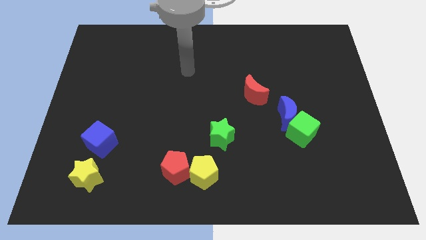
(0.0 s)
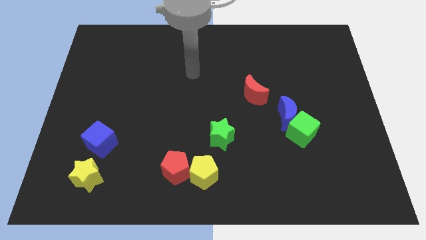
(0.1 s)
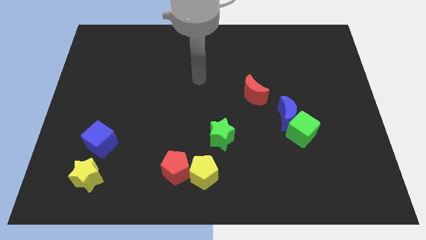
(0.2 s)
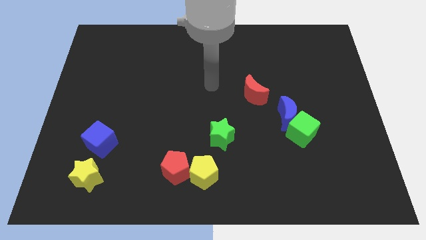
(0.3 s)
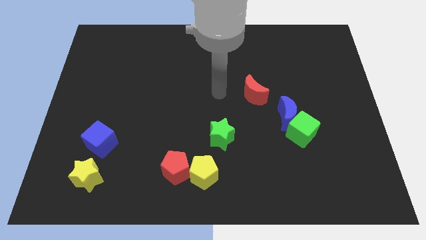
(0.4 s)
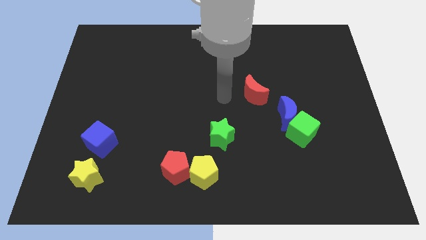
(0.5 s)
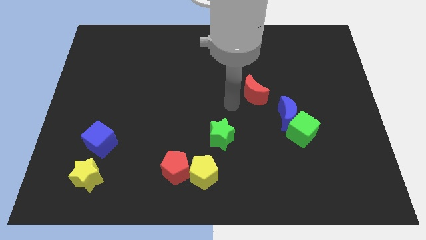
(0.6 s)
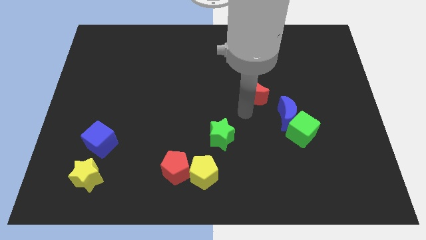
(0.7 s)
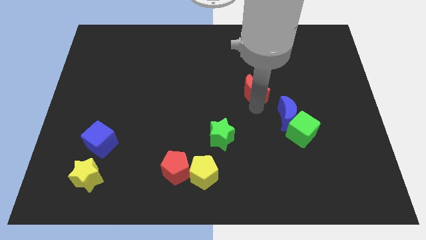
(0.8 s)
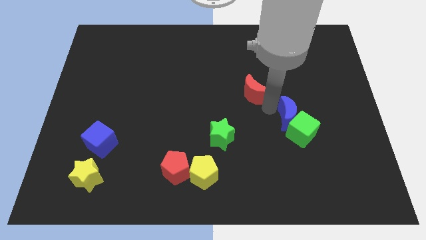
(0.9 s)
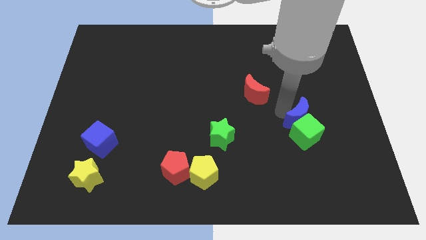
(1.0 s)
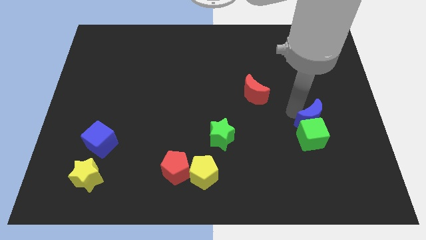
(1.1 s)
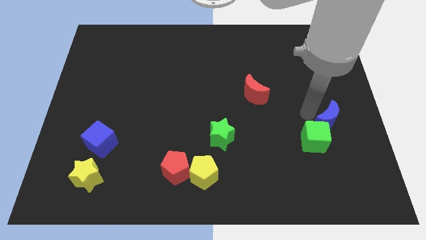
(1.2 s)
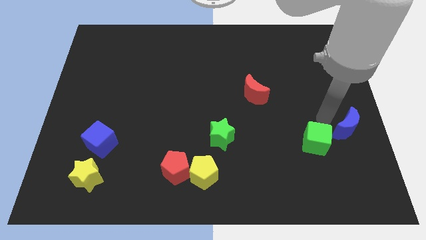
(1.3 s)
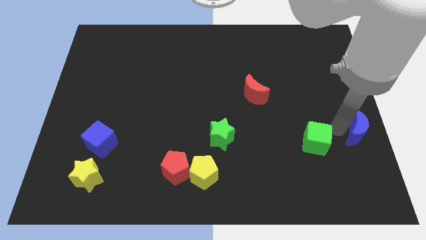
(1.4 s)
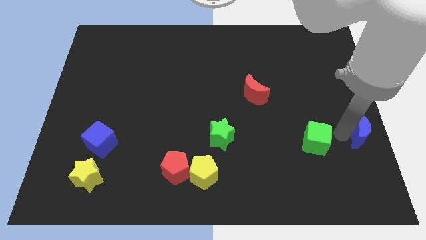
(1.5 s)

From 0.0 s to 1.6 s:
move the green cube away from the blue moon

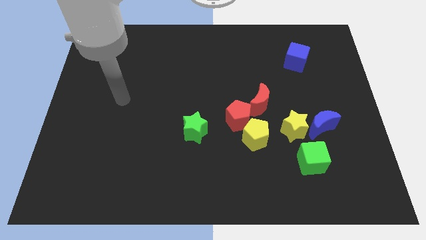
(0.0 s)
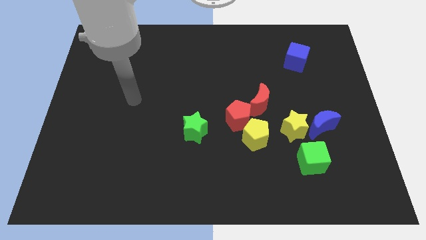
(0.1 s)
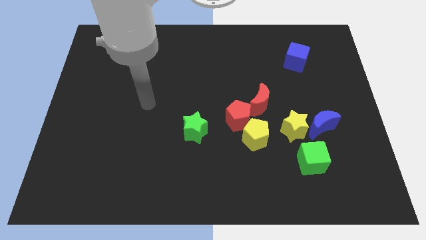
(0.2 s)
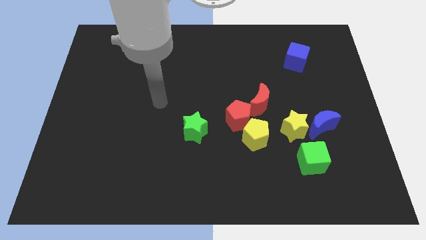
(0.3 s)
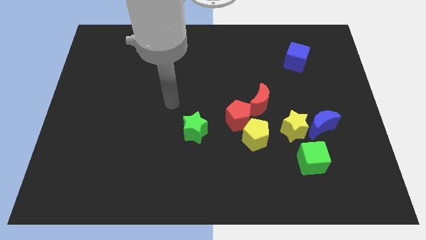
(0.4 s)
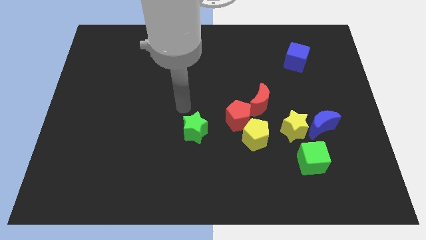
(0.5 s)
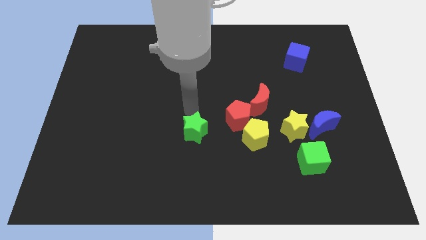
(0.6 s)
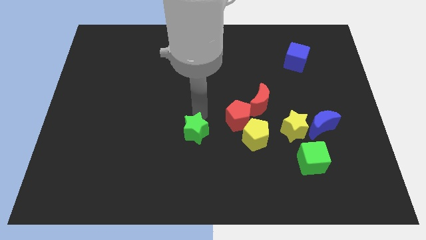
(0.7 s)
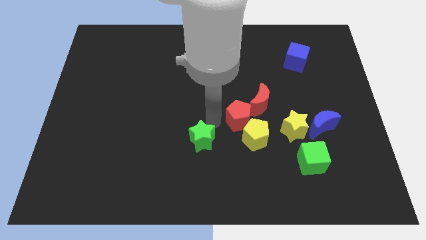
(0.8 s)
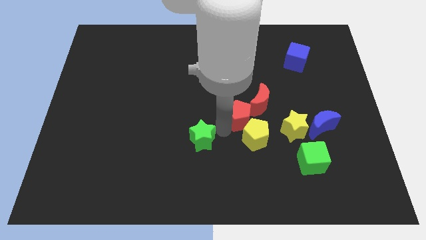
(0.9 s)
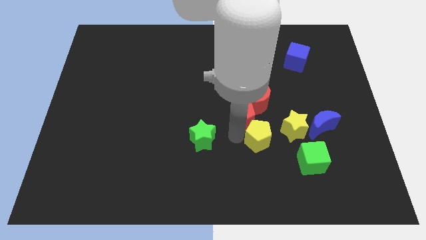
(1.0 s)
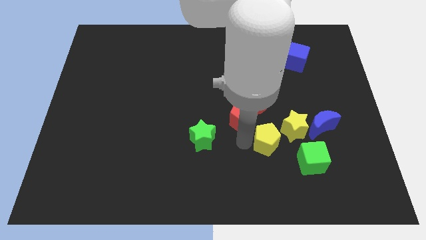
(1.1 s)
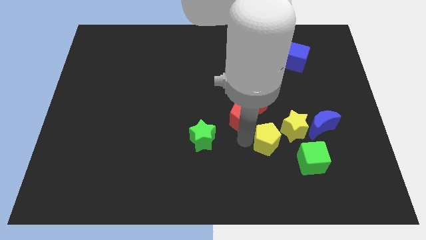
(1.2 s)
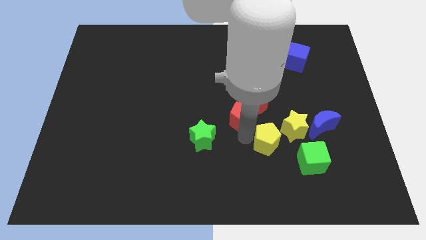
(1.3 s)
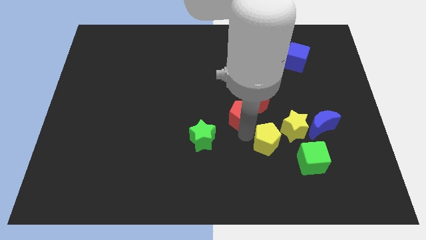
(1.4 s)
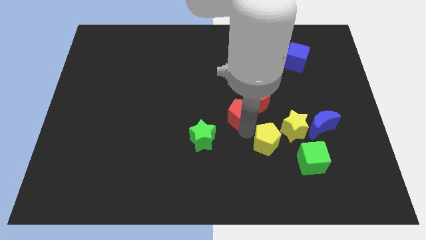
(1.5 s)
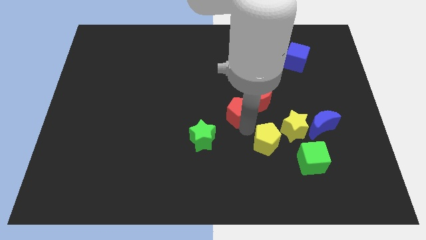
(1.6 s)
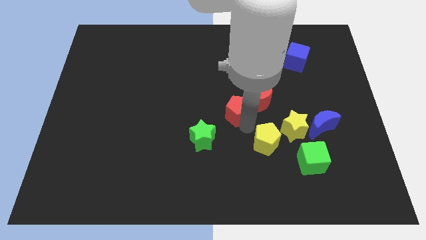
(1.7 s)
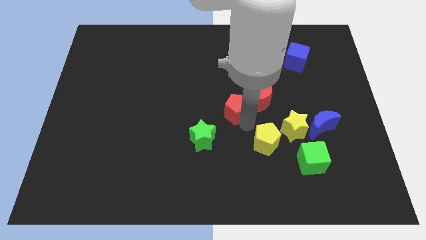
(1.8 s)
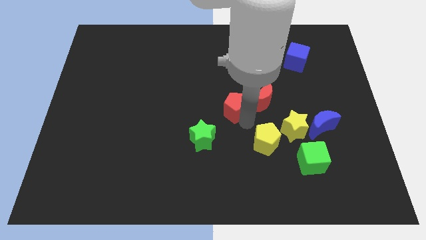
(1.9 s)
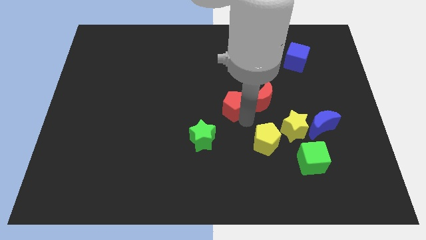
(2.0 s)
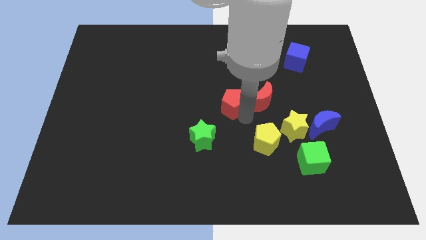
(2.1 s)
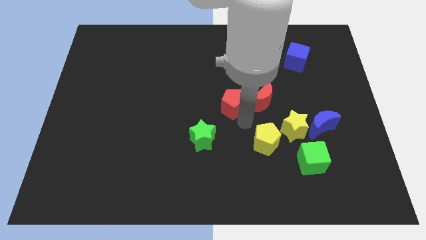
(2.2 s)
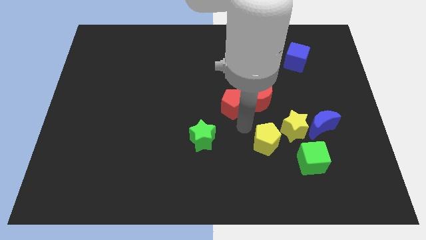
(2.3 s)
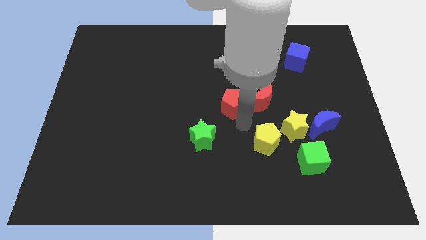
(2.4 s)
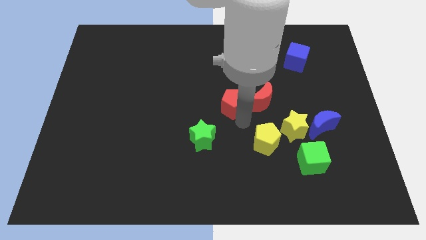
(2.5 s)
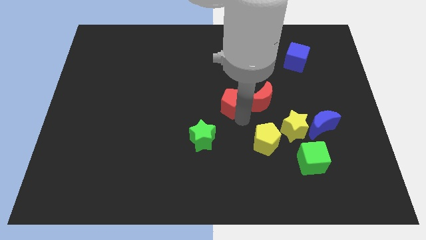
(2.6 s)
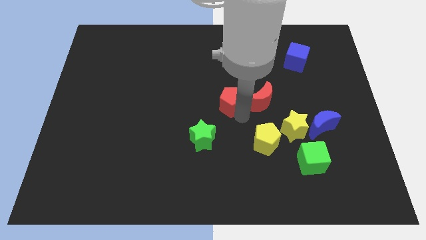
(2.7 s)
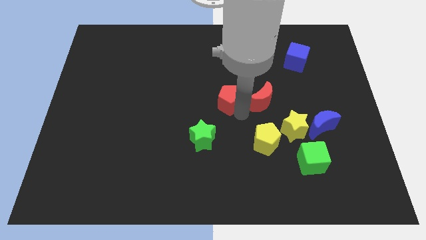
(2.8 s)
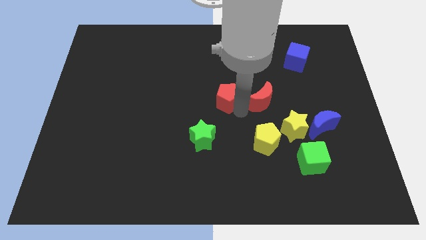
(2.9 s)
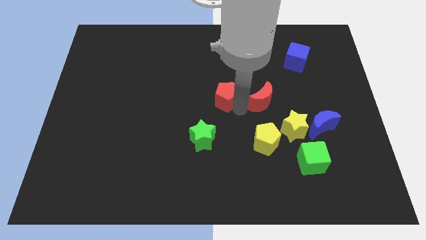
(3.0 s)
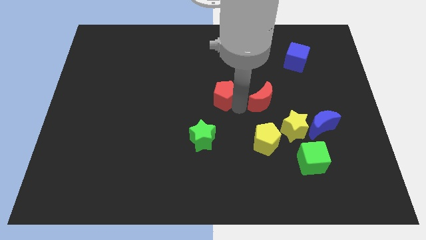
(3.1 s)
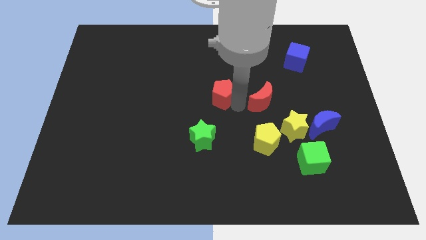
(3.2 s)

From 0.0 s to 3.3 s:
move the red pentagon away from the yellow pentagon, red moon, and green star

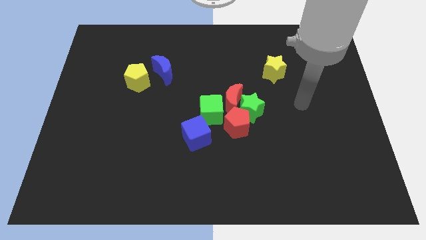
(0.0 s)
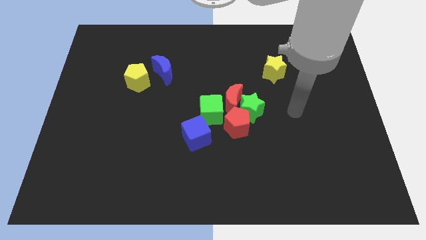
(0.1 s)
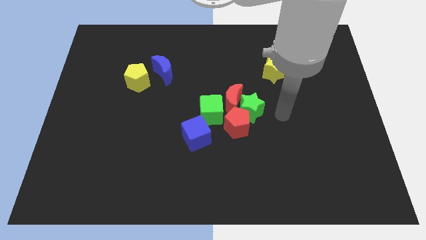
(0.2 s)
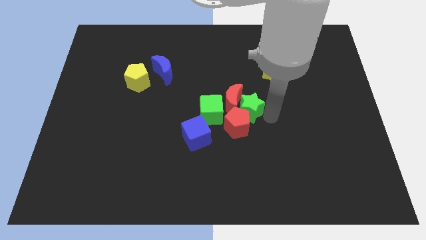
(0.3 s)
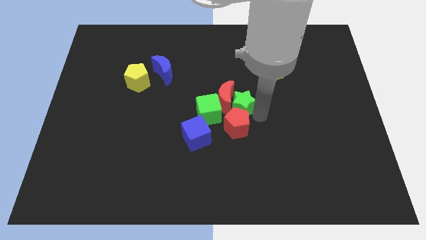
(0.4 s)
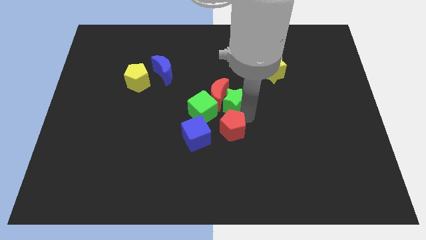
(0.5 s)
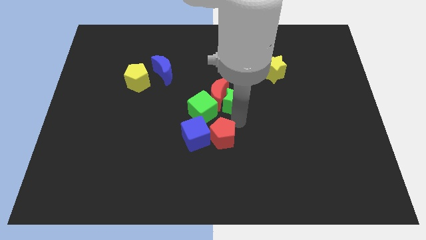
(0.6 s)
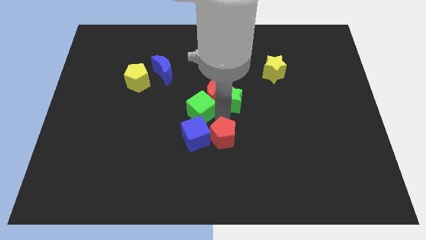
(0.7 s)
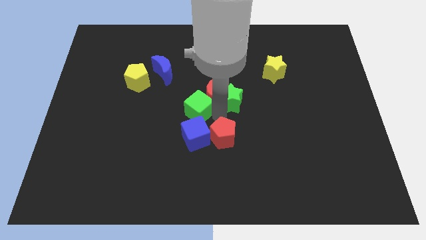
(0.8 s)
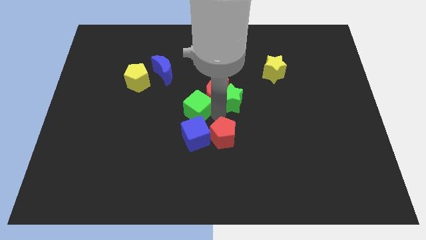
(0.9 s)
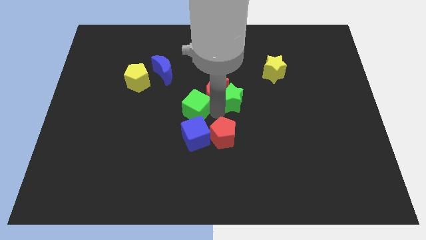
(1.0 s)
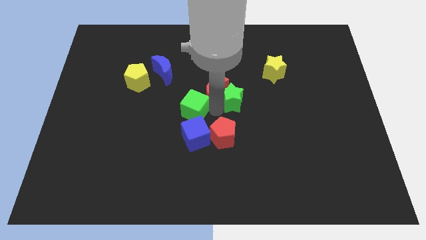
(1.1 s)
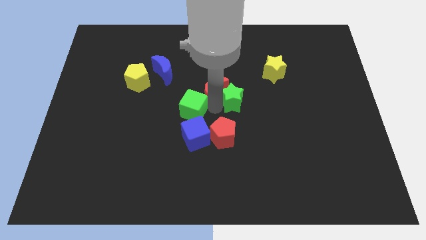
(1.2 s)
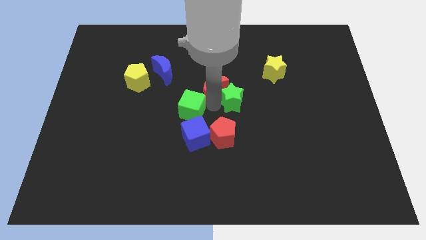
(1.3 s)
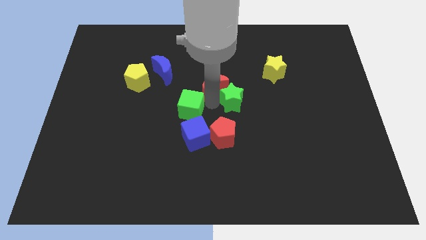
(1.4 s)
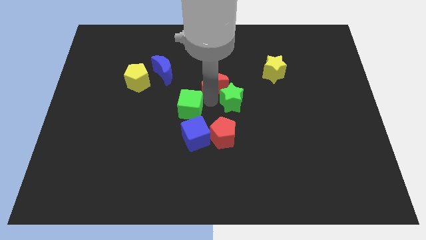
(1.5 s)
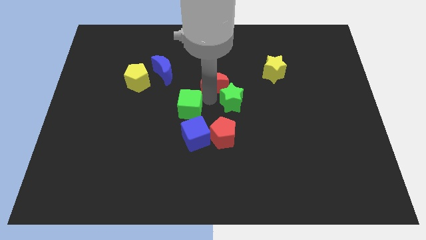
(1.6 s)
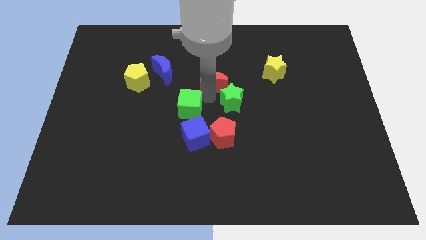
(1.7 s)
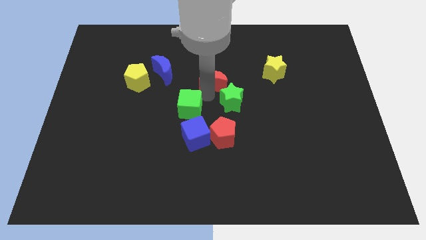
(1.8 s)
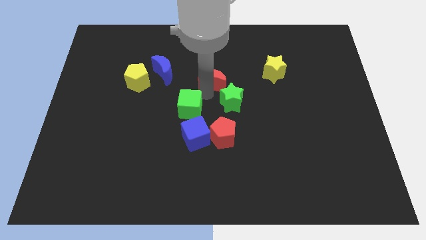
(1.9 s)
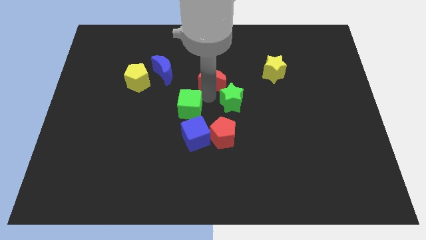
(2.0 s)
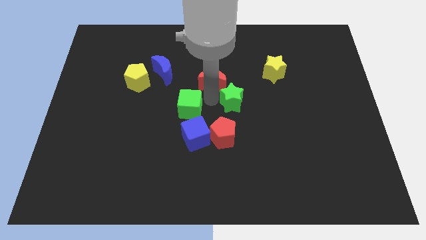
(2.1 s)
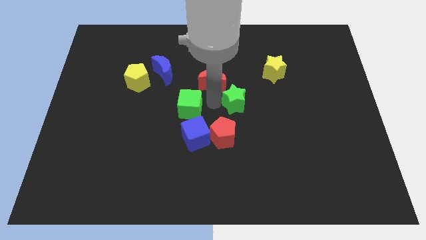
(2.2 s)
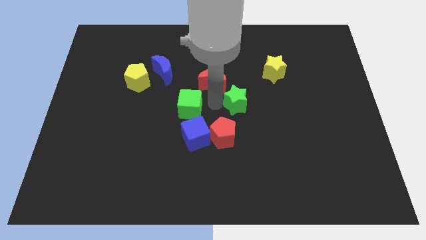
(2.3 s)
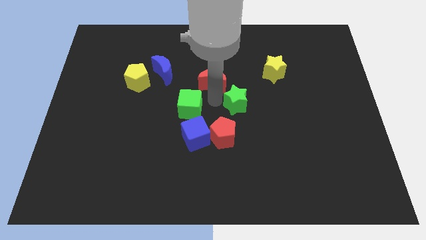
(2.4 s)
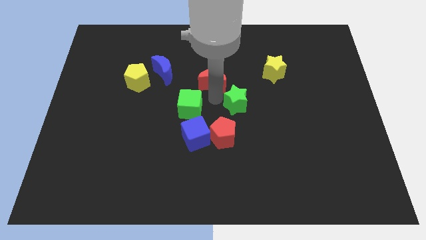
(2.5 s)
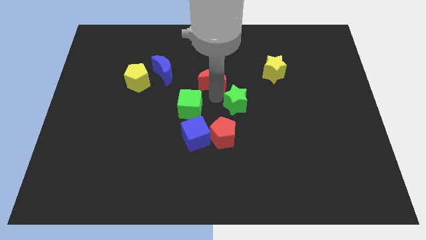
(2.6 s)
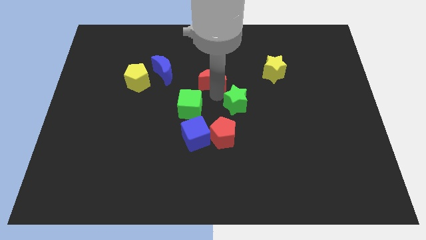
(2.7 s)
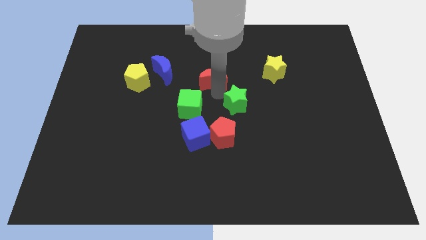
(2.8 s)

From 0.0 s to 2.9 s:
pull the red moon apart from the green star, green cube, and red pentagon

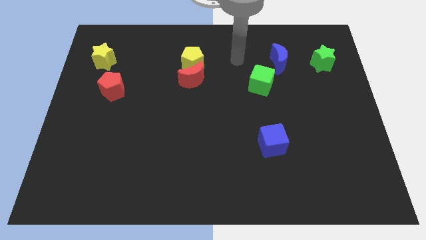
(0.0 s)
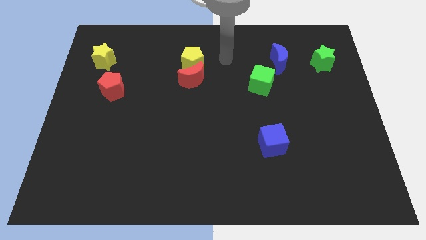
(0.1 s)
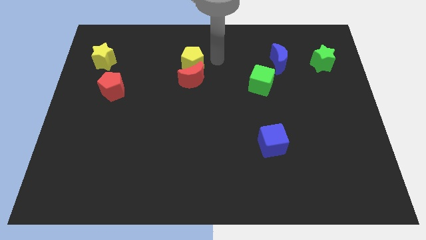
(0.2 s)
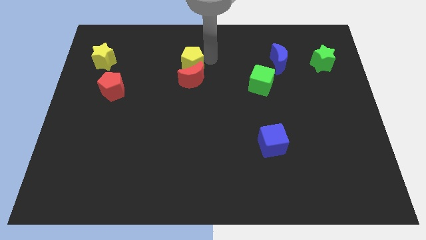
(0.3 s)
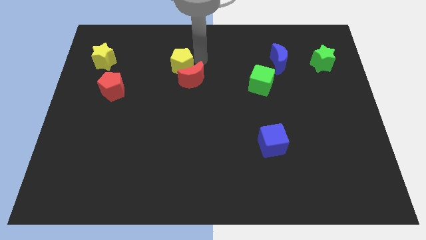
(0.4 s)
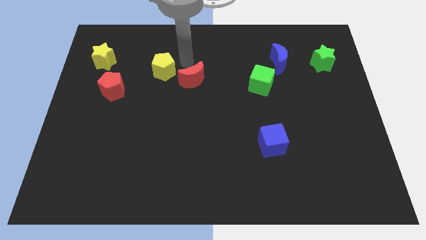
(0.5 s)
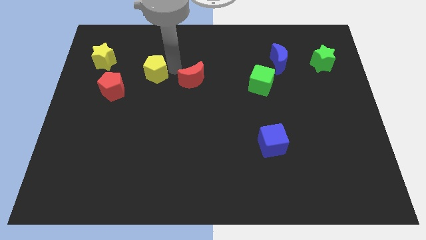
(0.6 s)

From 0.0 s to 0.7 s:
separate the red moon from the yellow pentagon

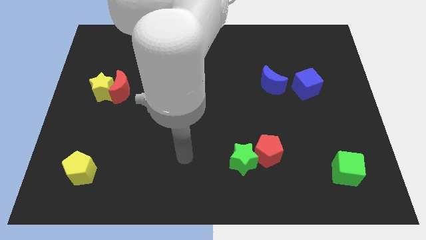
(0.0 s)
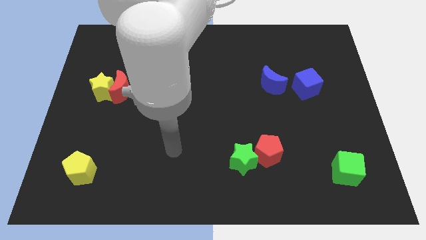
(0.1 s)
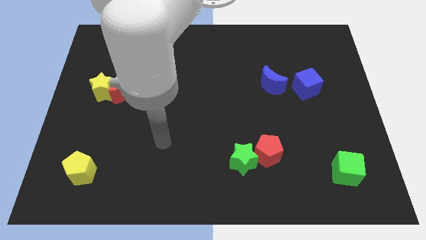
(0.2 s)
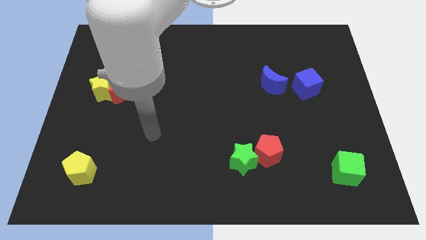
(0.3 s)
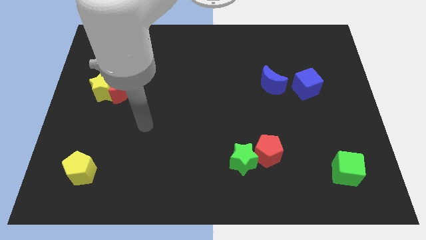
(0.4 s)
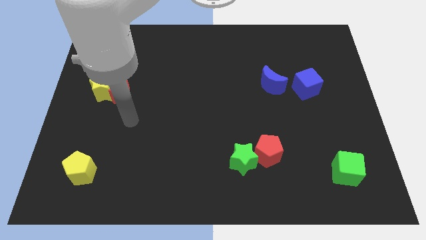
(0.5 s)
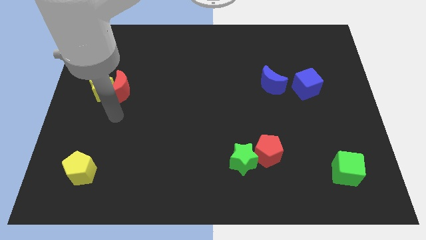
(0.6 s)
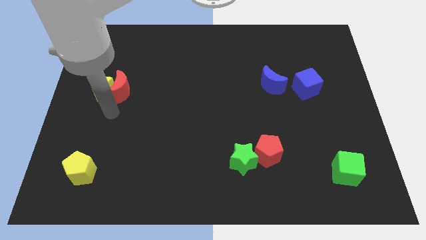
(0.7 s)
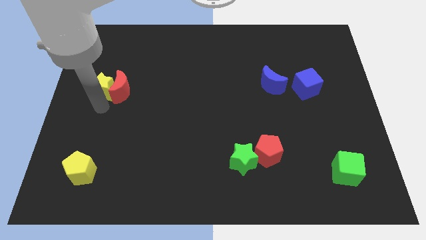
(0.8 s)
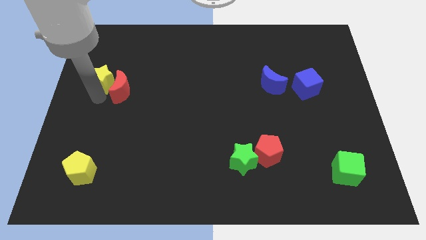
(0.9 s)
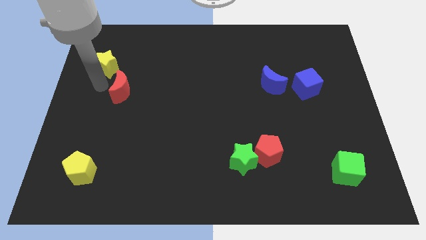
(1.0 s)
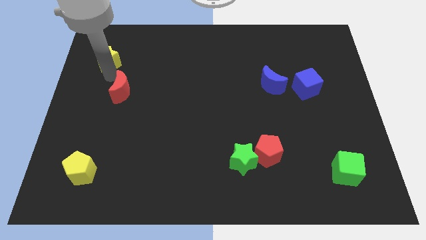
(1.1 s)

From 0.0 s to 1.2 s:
move the red moon away from the yellow star
